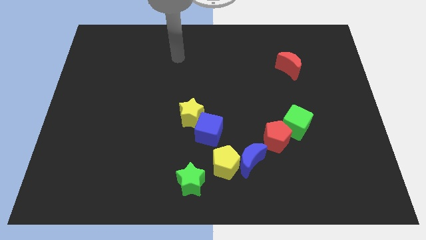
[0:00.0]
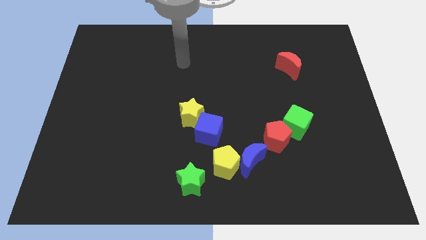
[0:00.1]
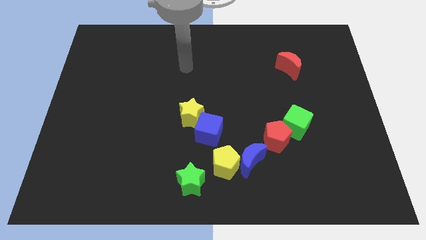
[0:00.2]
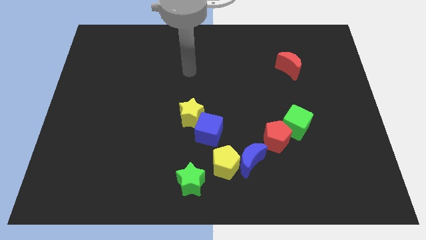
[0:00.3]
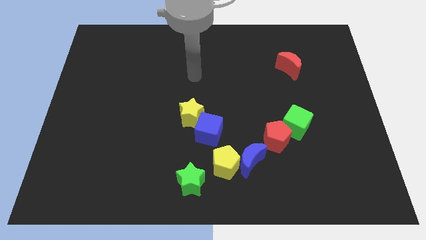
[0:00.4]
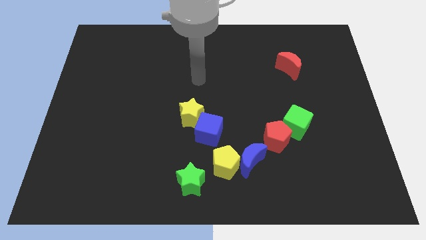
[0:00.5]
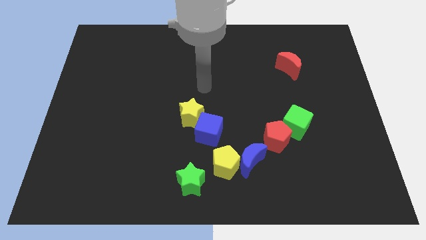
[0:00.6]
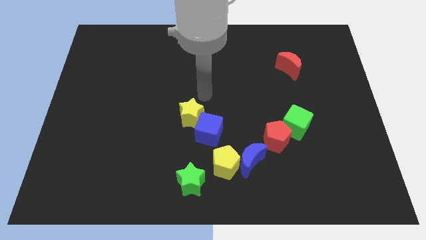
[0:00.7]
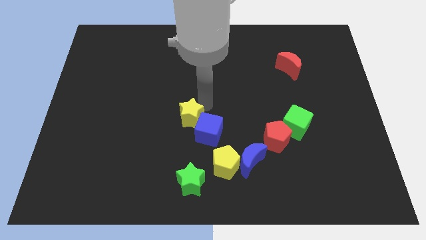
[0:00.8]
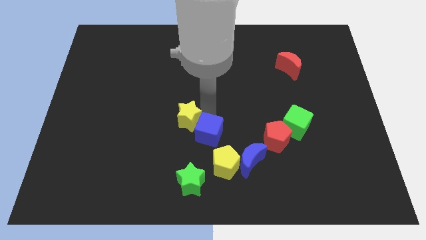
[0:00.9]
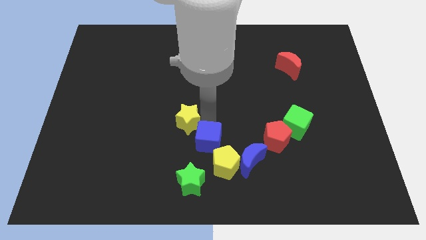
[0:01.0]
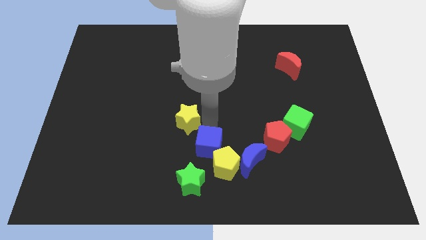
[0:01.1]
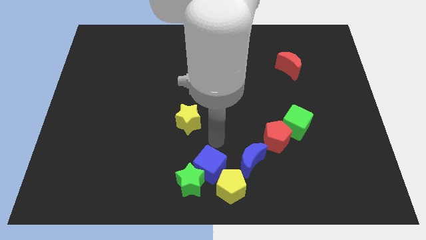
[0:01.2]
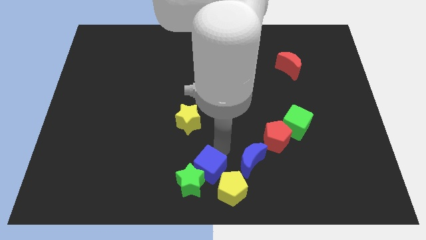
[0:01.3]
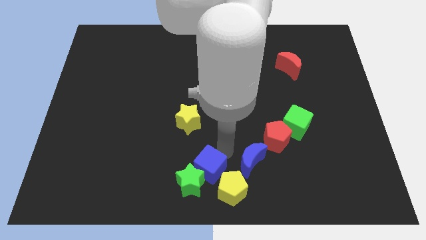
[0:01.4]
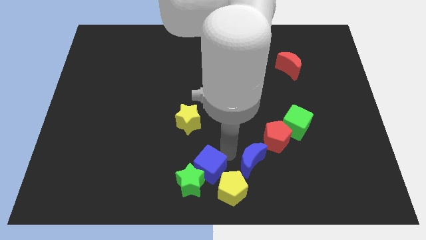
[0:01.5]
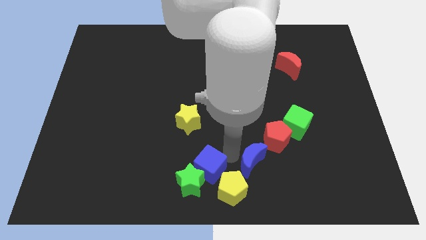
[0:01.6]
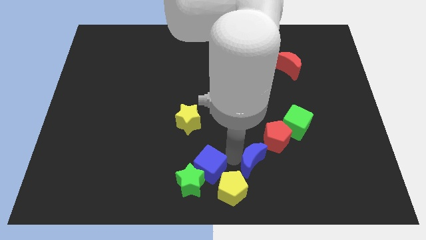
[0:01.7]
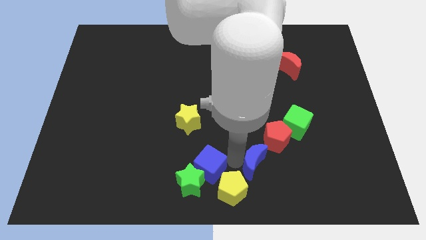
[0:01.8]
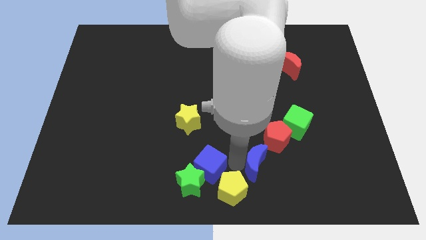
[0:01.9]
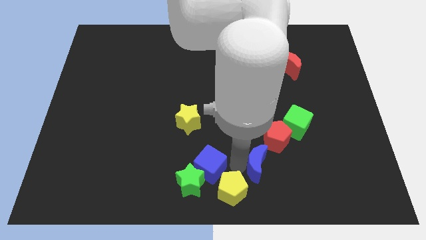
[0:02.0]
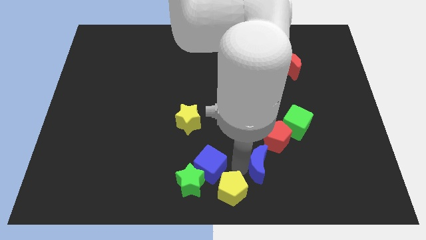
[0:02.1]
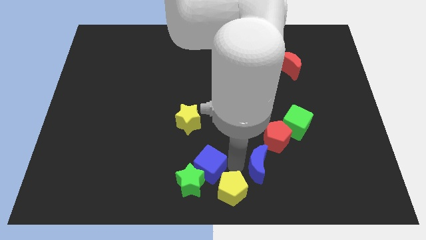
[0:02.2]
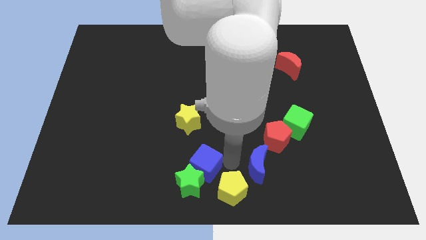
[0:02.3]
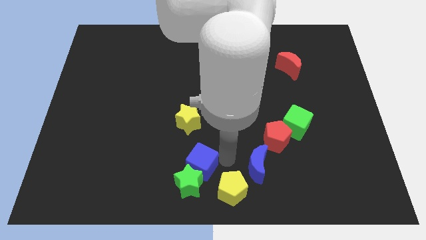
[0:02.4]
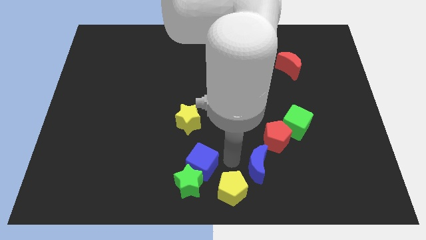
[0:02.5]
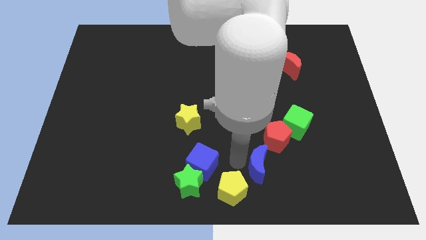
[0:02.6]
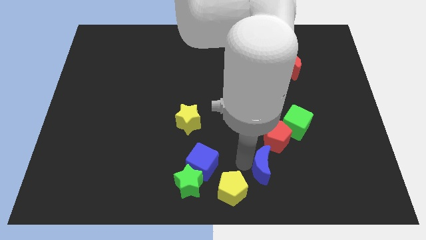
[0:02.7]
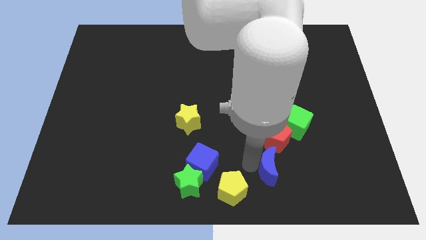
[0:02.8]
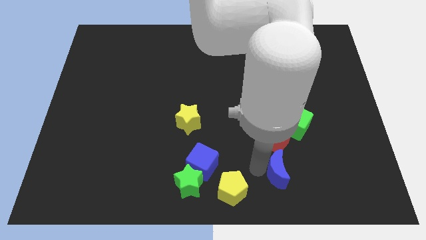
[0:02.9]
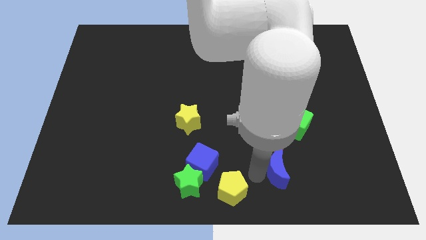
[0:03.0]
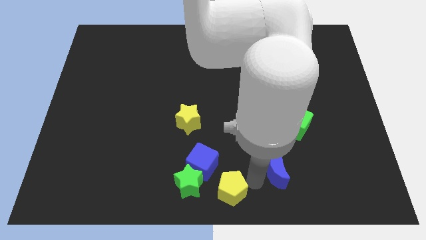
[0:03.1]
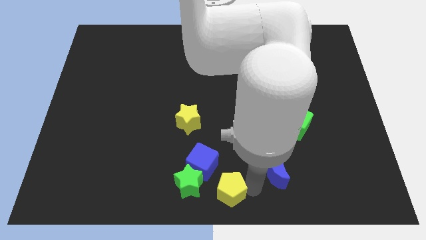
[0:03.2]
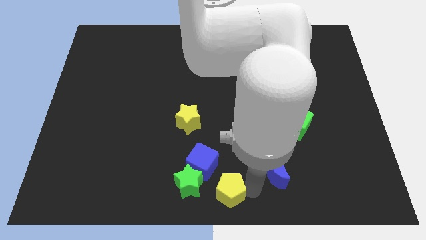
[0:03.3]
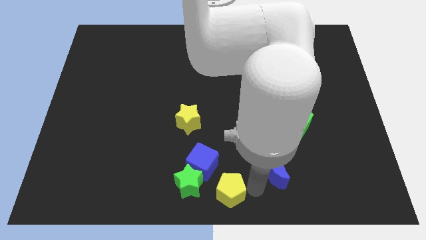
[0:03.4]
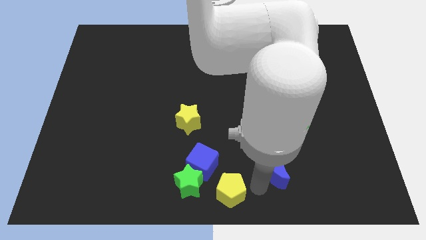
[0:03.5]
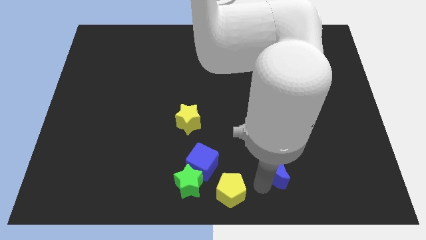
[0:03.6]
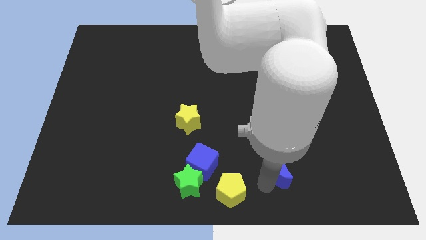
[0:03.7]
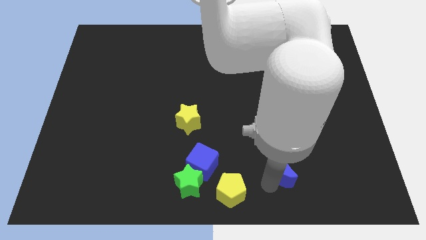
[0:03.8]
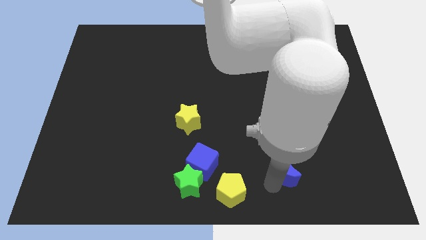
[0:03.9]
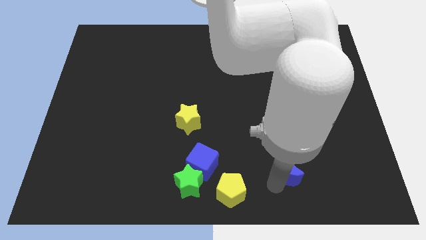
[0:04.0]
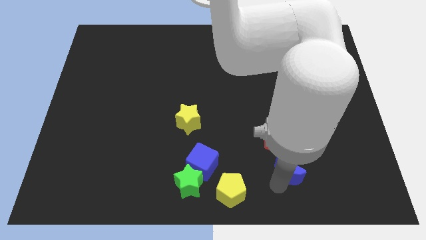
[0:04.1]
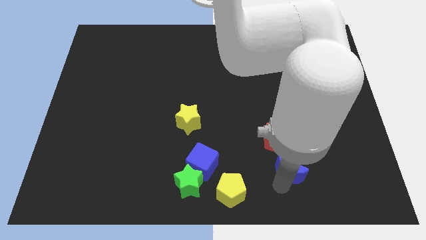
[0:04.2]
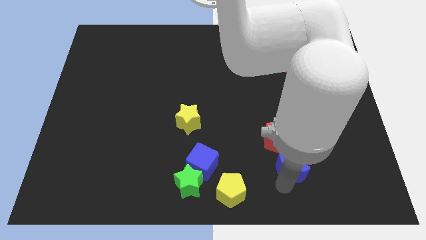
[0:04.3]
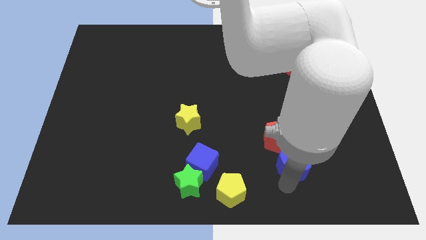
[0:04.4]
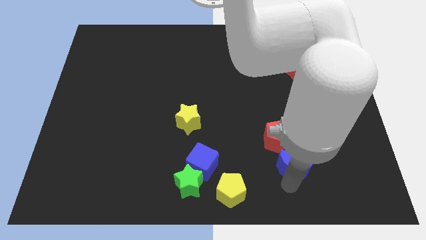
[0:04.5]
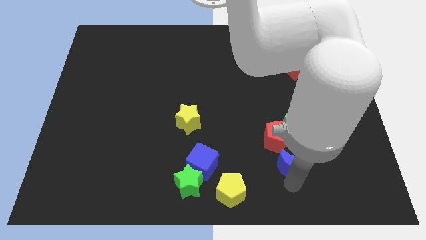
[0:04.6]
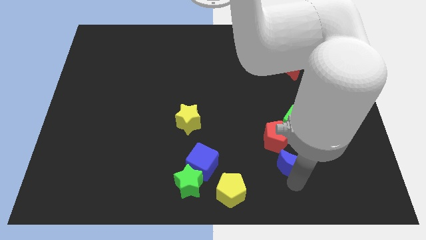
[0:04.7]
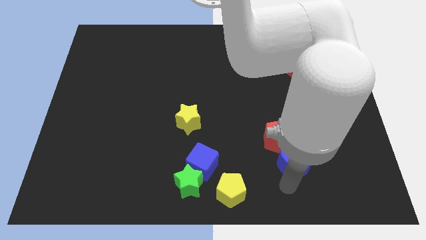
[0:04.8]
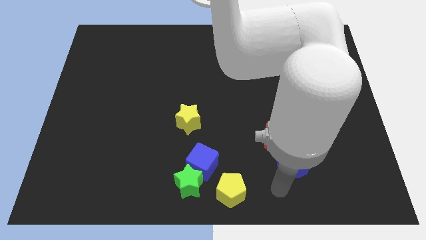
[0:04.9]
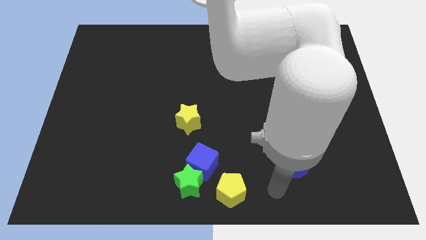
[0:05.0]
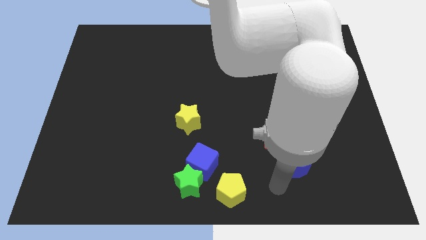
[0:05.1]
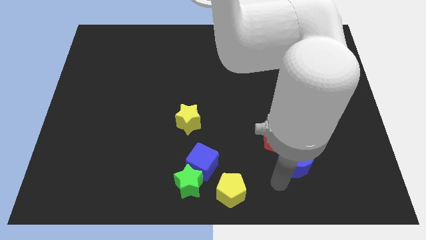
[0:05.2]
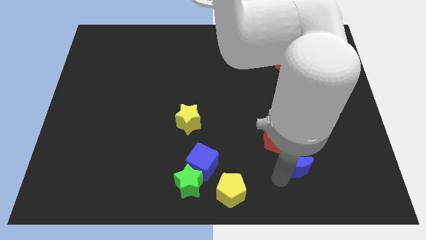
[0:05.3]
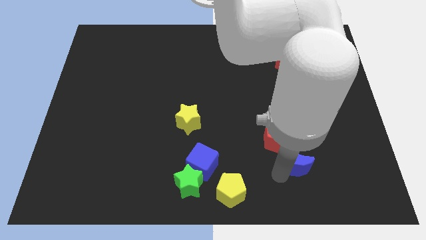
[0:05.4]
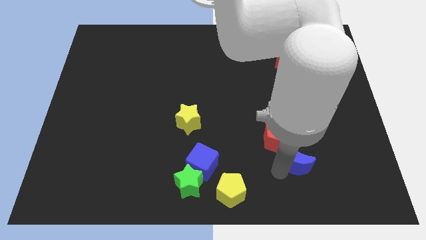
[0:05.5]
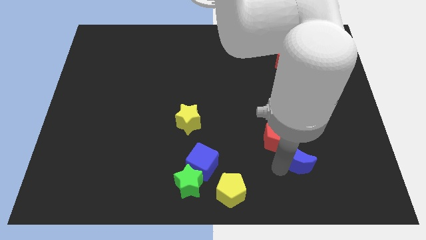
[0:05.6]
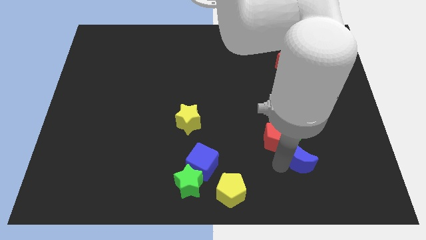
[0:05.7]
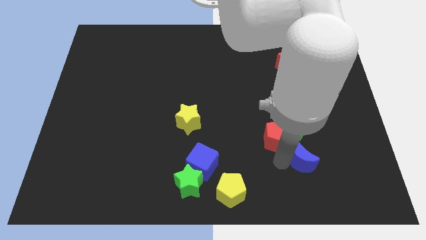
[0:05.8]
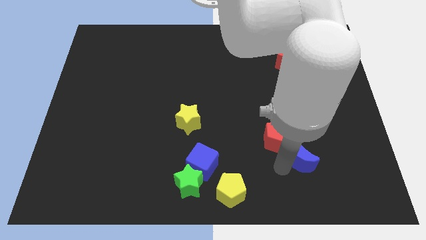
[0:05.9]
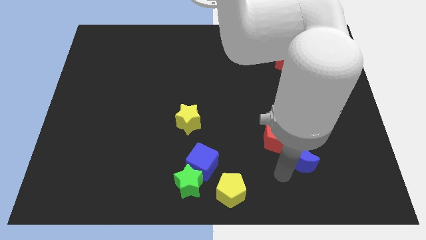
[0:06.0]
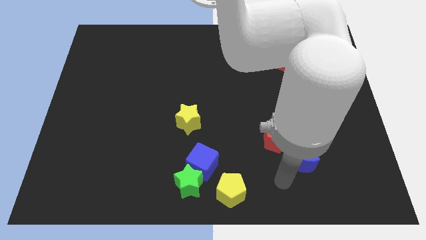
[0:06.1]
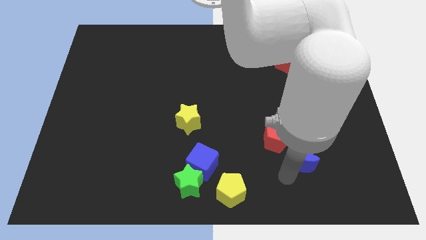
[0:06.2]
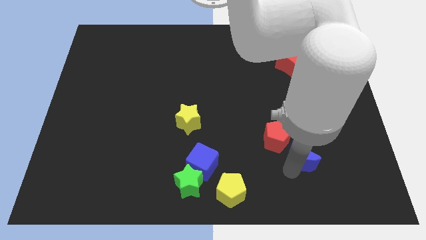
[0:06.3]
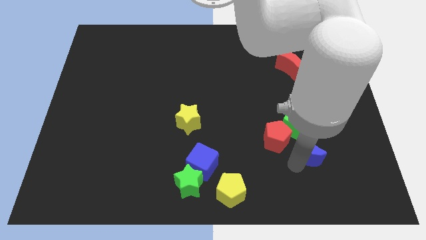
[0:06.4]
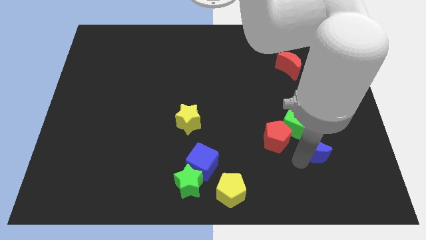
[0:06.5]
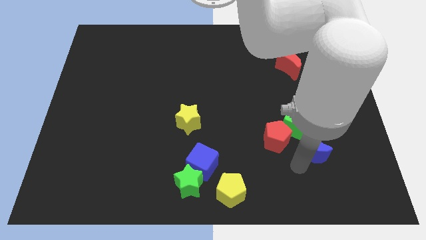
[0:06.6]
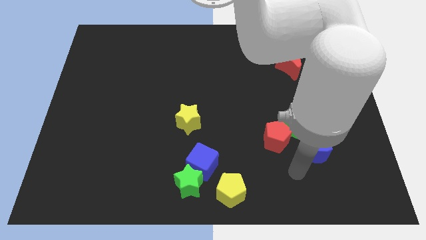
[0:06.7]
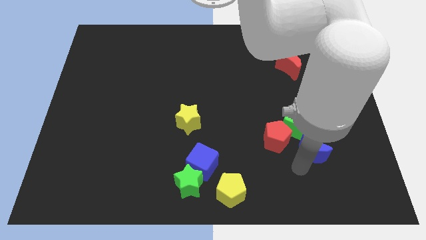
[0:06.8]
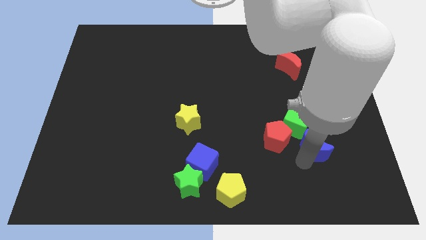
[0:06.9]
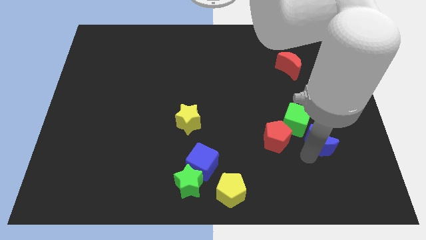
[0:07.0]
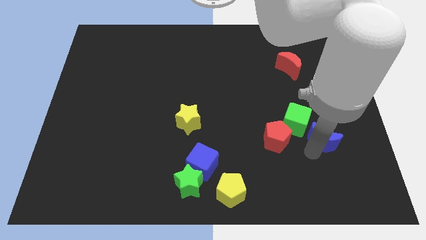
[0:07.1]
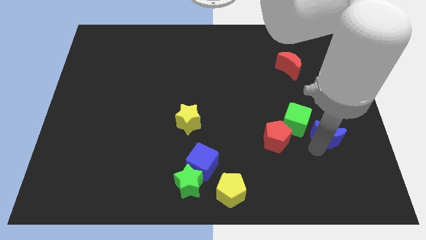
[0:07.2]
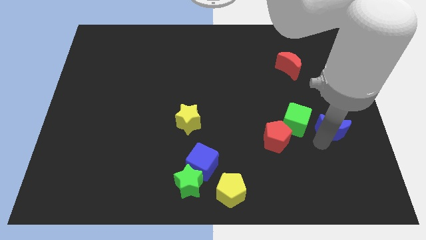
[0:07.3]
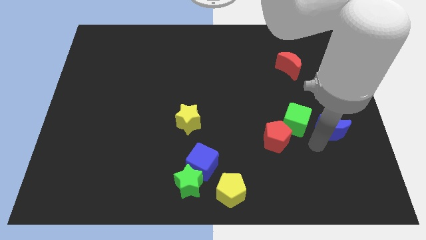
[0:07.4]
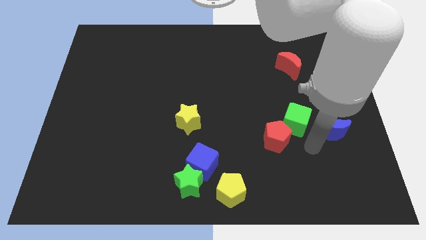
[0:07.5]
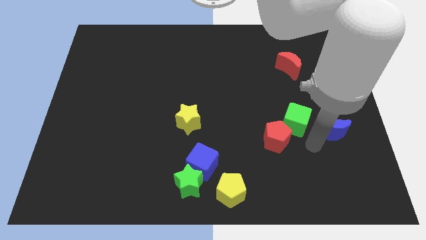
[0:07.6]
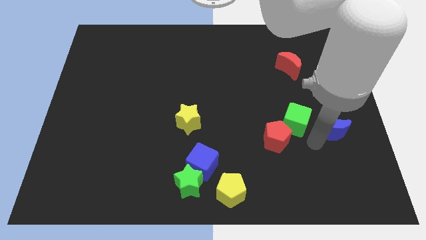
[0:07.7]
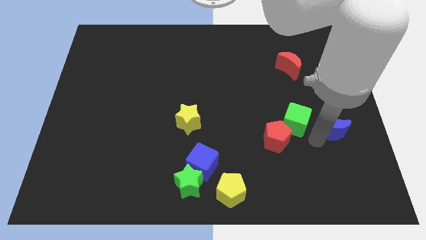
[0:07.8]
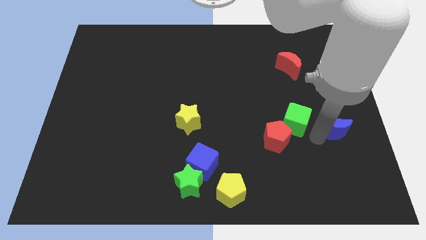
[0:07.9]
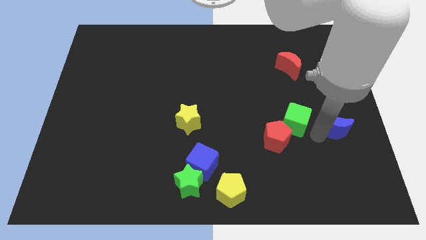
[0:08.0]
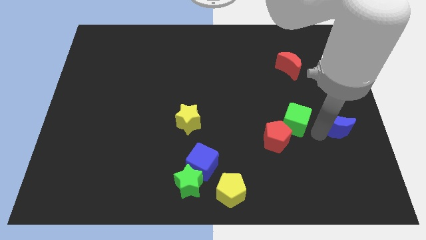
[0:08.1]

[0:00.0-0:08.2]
move the blue moon to the right side
